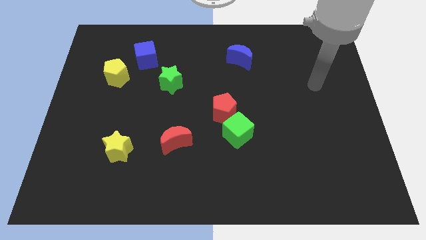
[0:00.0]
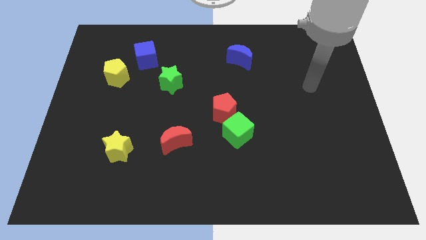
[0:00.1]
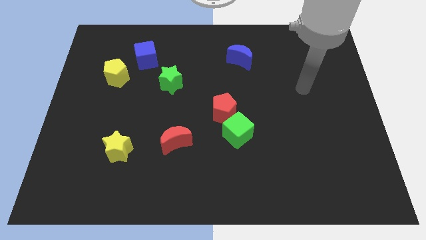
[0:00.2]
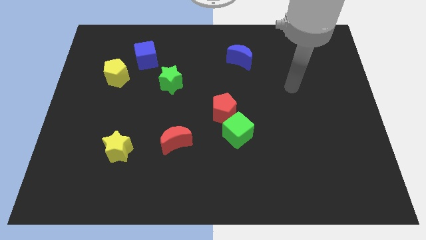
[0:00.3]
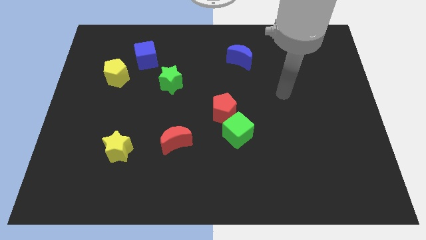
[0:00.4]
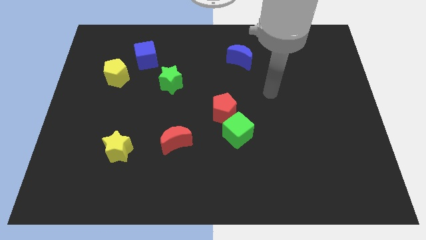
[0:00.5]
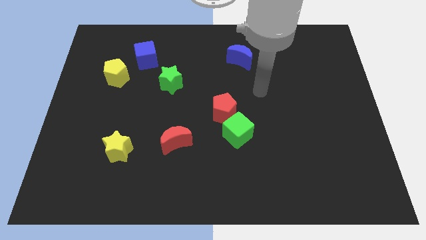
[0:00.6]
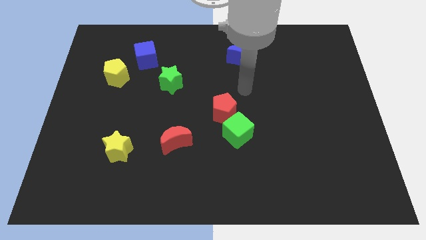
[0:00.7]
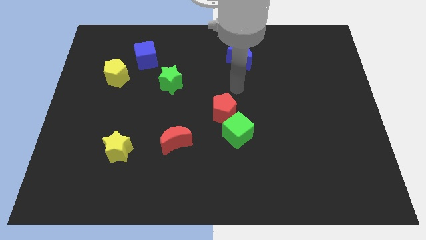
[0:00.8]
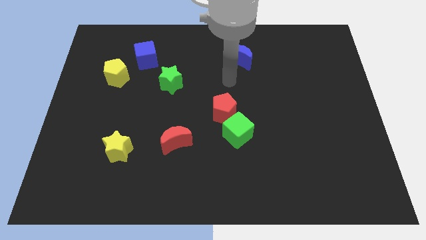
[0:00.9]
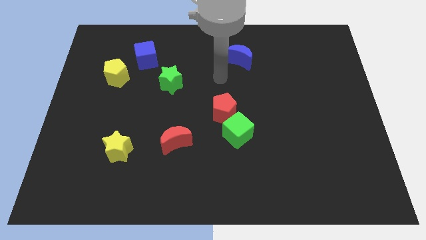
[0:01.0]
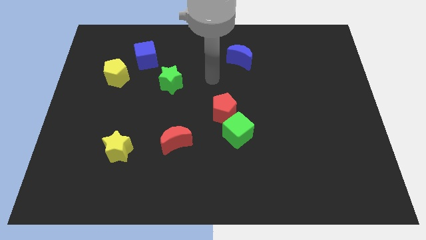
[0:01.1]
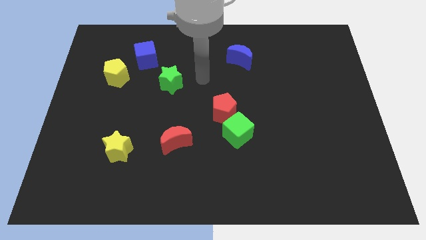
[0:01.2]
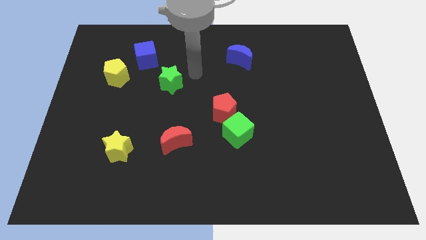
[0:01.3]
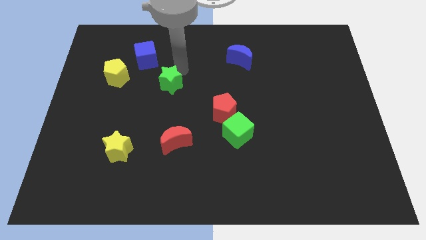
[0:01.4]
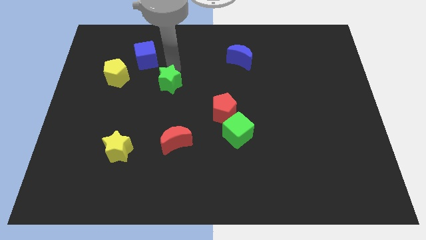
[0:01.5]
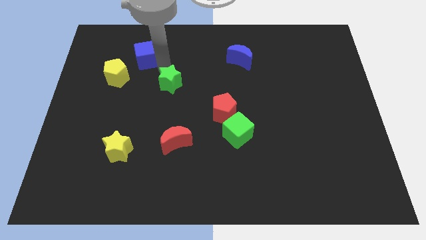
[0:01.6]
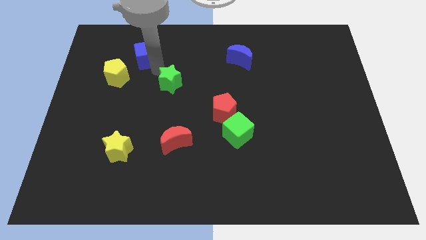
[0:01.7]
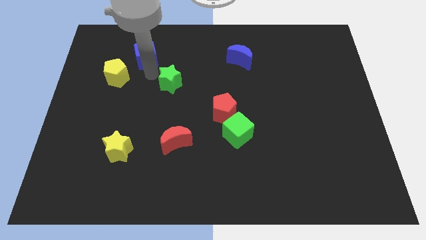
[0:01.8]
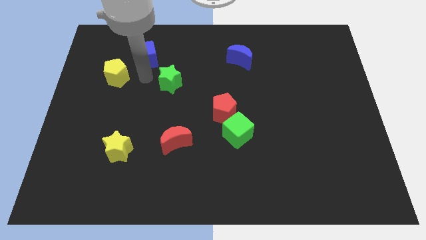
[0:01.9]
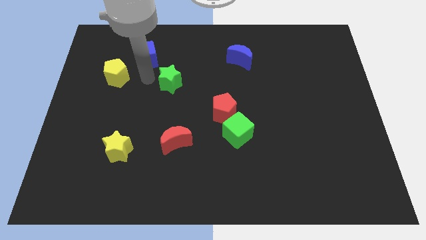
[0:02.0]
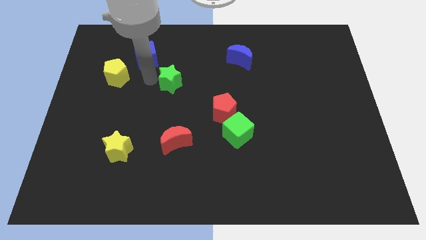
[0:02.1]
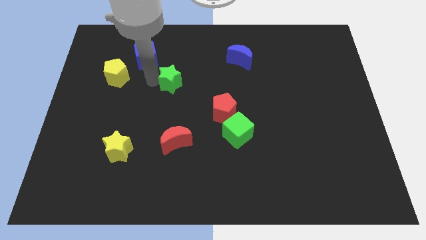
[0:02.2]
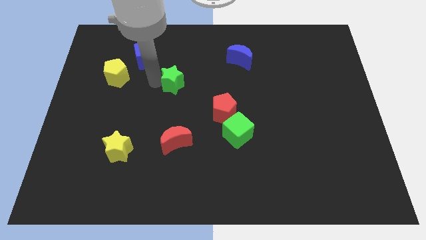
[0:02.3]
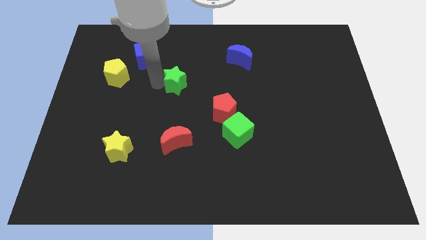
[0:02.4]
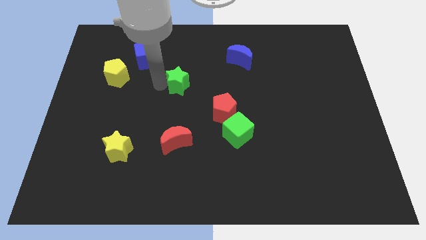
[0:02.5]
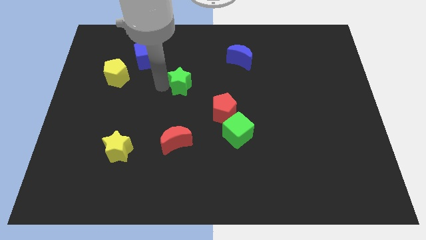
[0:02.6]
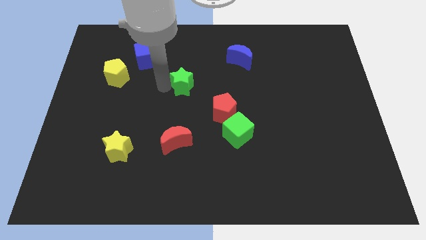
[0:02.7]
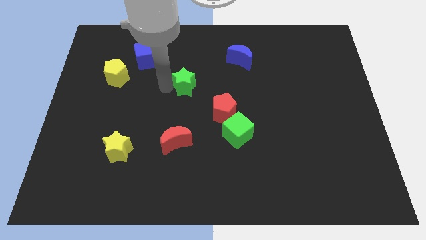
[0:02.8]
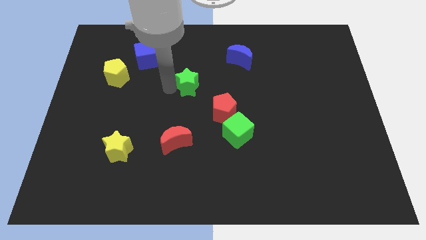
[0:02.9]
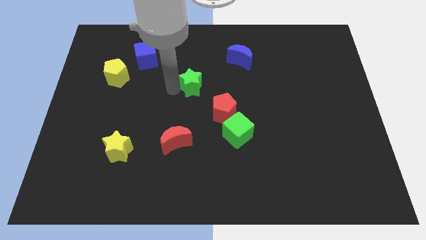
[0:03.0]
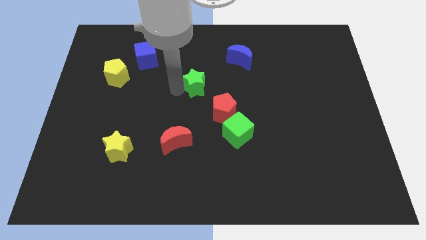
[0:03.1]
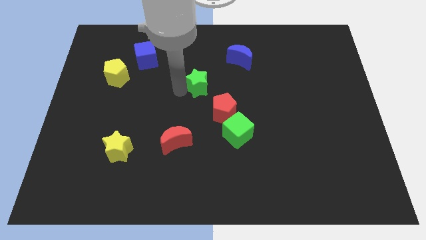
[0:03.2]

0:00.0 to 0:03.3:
push the green star to the right slightly

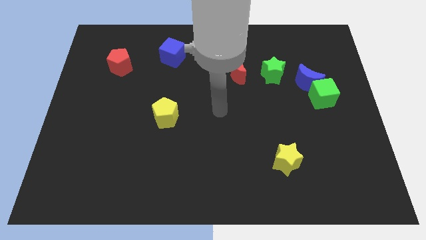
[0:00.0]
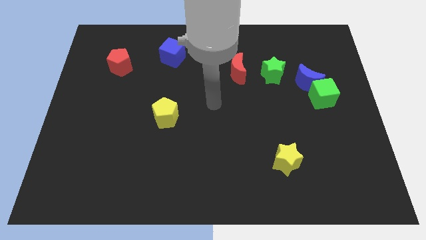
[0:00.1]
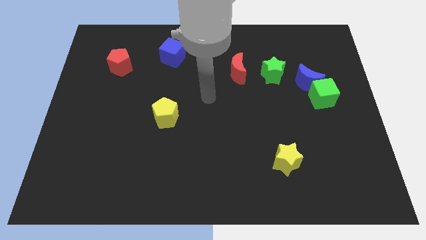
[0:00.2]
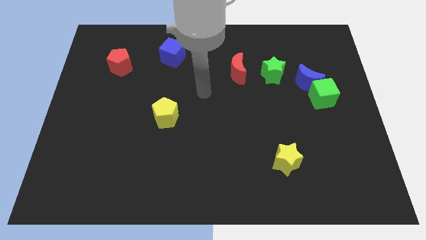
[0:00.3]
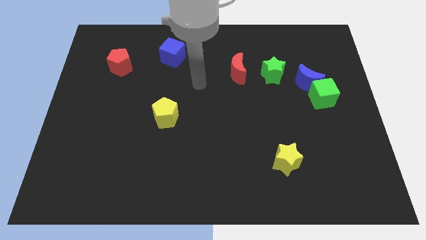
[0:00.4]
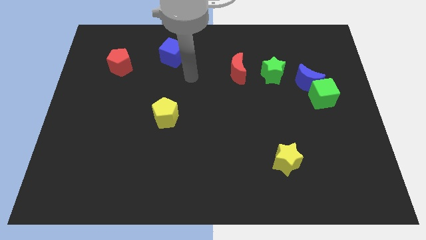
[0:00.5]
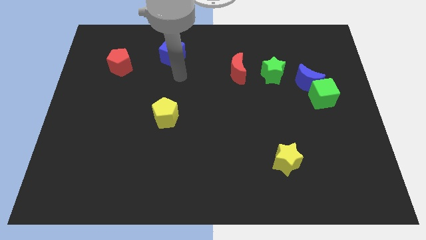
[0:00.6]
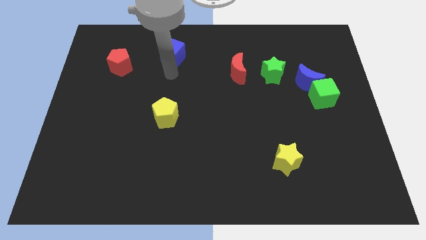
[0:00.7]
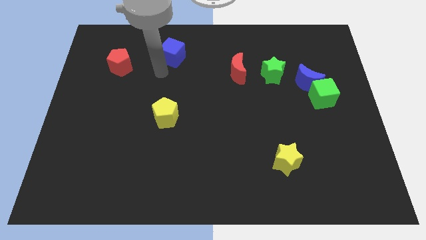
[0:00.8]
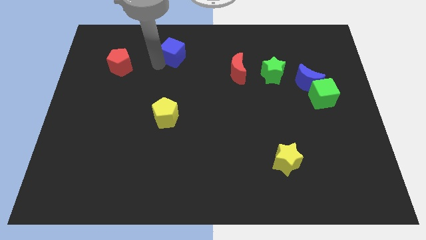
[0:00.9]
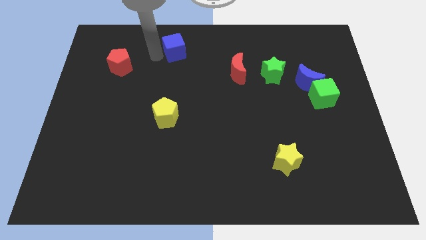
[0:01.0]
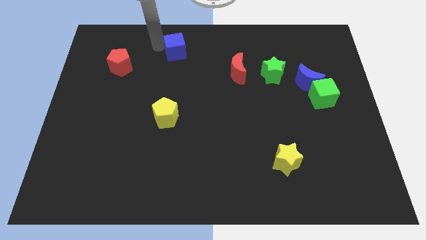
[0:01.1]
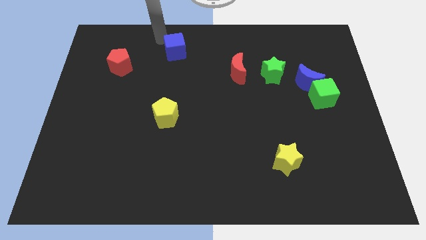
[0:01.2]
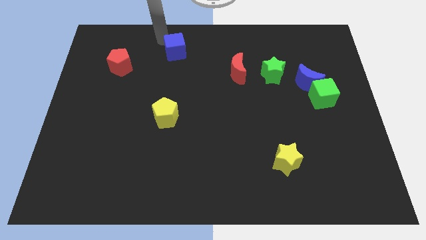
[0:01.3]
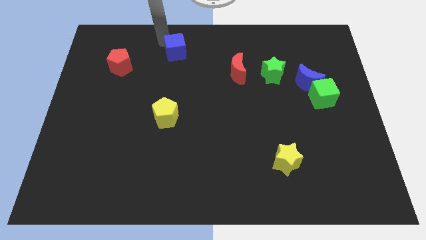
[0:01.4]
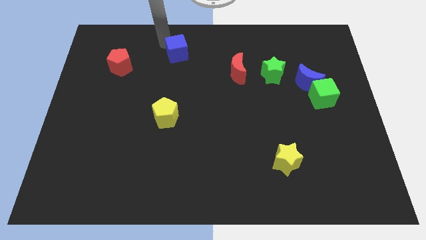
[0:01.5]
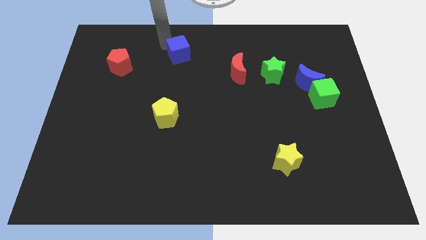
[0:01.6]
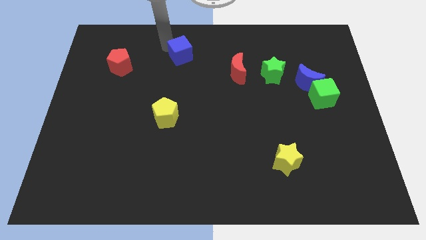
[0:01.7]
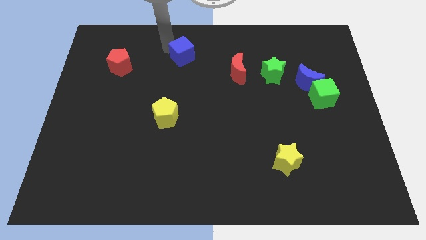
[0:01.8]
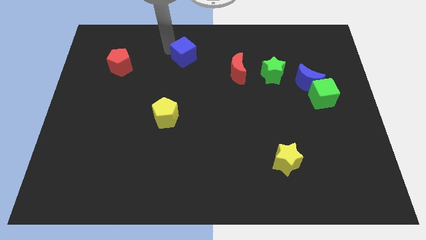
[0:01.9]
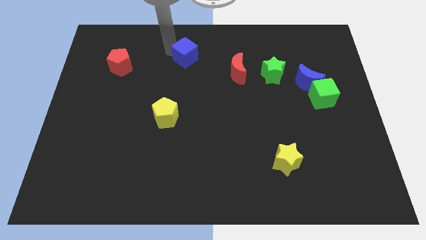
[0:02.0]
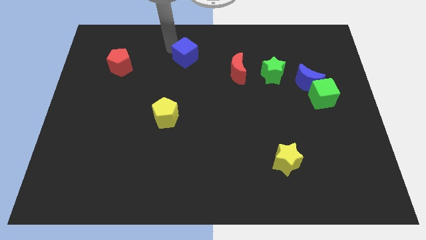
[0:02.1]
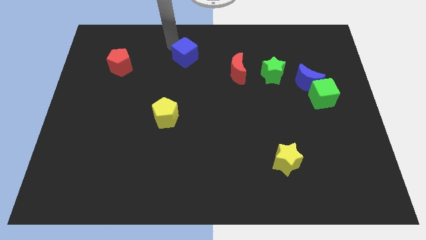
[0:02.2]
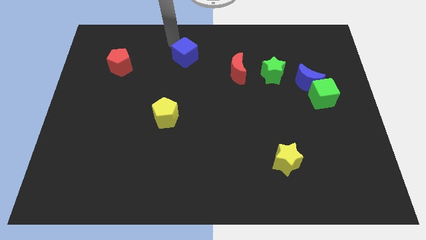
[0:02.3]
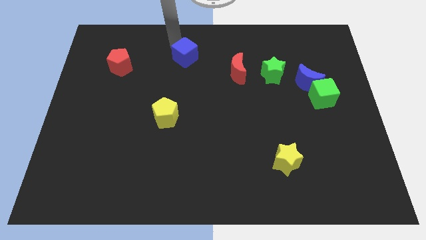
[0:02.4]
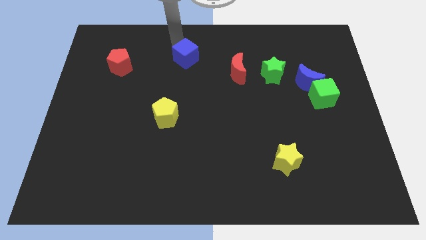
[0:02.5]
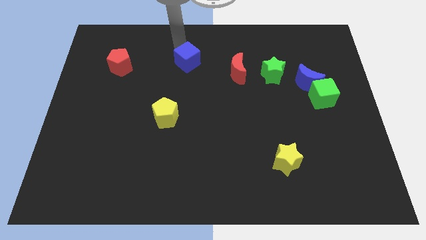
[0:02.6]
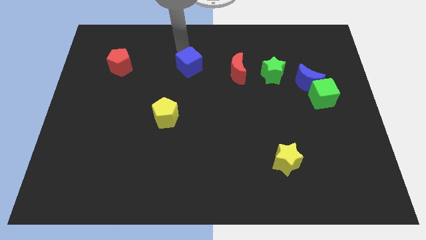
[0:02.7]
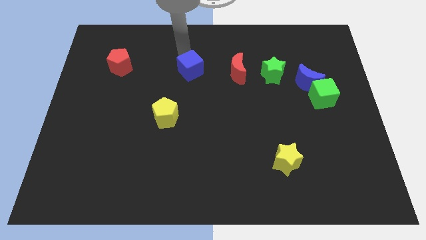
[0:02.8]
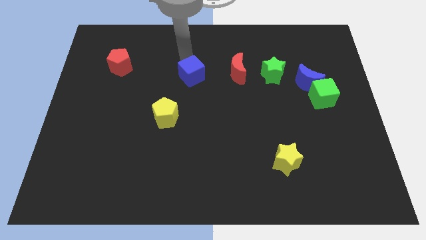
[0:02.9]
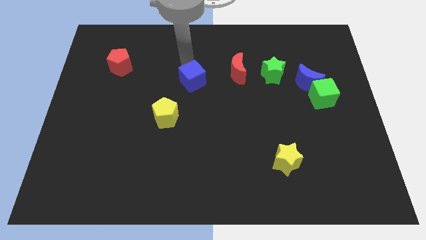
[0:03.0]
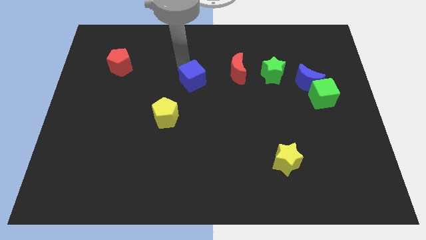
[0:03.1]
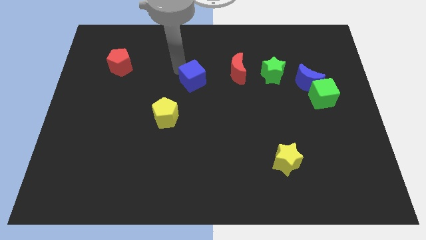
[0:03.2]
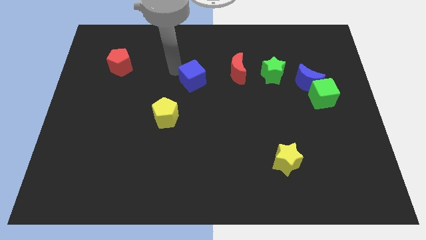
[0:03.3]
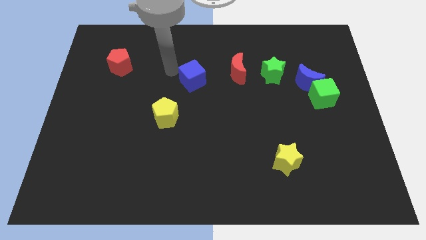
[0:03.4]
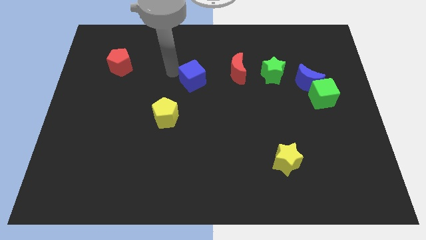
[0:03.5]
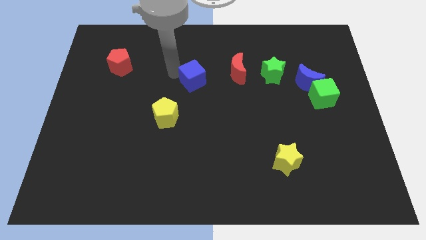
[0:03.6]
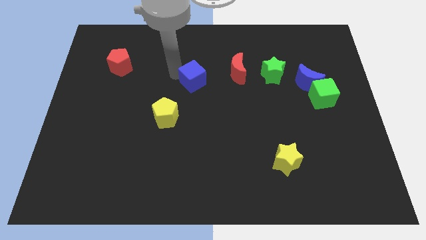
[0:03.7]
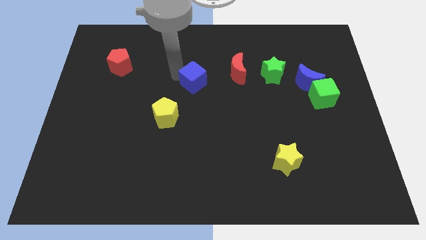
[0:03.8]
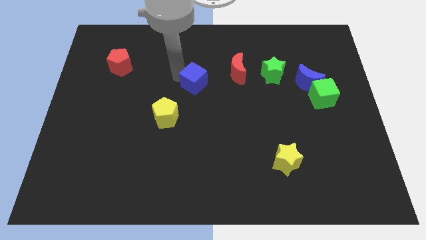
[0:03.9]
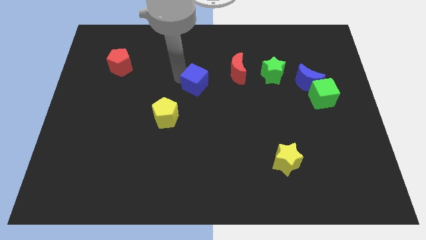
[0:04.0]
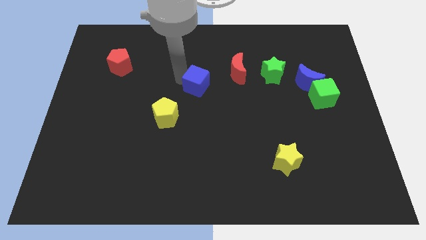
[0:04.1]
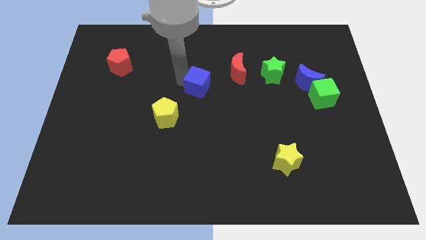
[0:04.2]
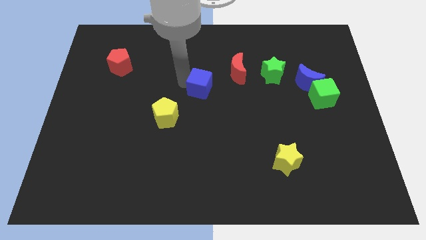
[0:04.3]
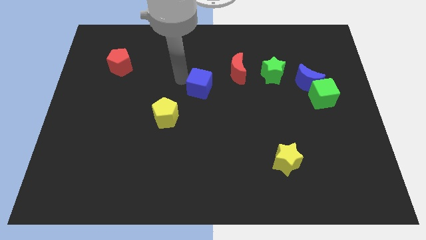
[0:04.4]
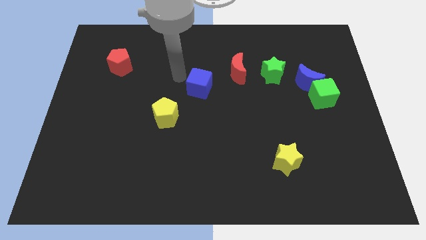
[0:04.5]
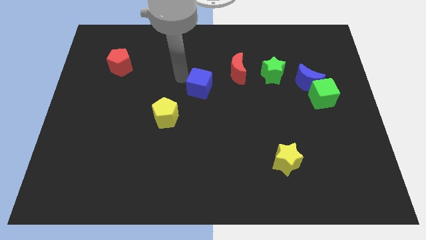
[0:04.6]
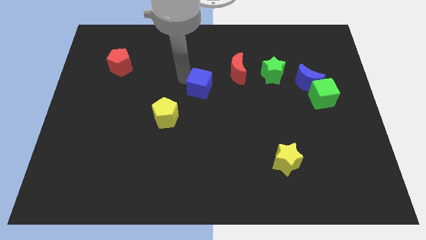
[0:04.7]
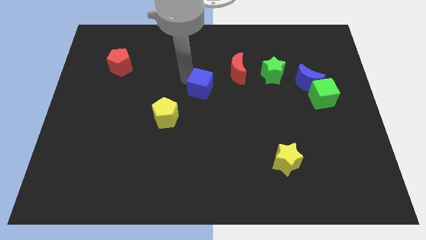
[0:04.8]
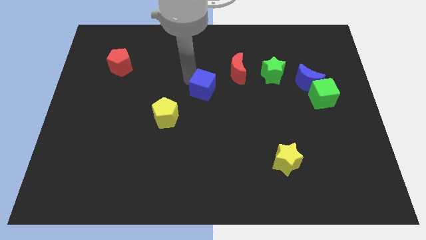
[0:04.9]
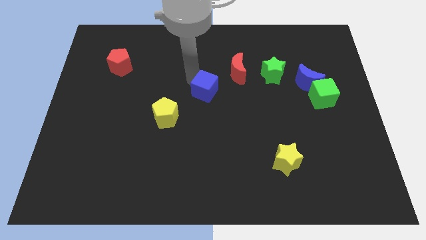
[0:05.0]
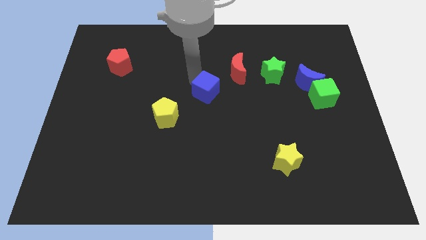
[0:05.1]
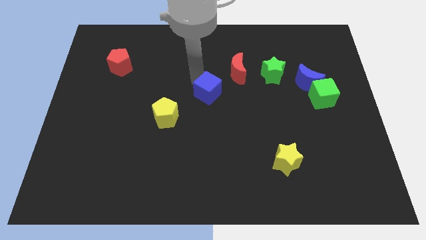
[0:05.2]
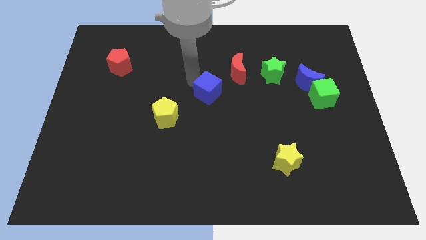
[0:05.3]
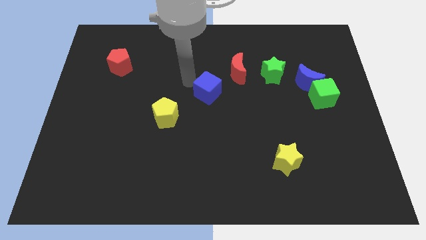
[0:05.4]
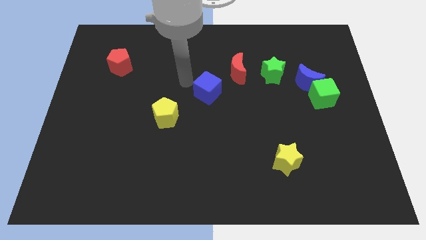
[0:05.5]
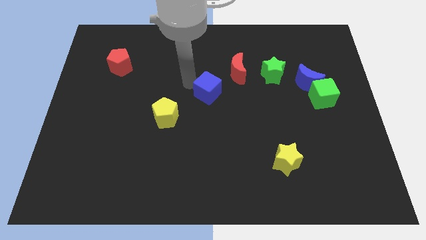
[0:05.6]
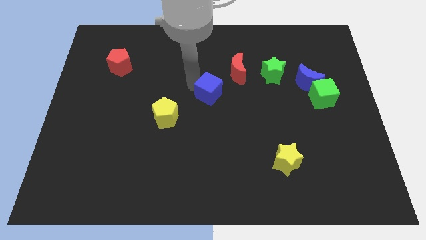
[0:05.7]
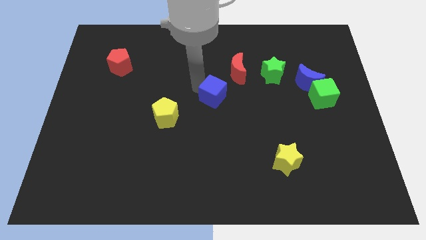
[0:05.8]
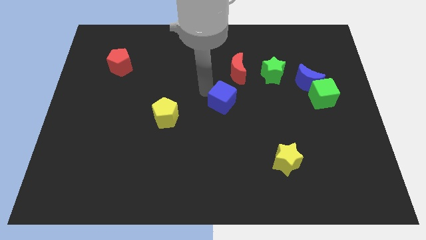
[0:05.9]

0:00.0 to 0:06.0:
slide the blue cube diagonally downwards and to the right
